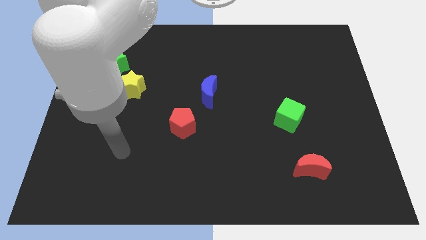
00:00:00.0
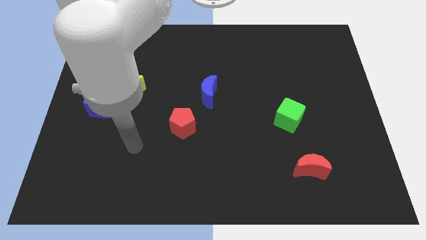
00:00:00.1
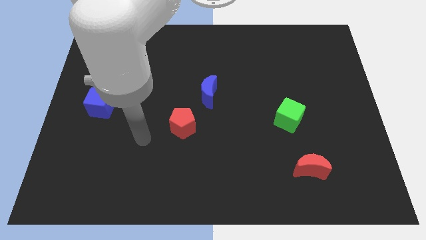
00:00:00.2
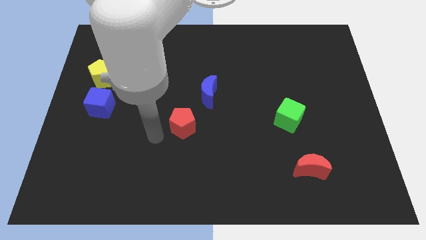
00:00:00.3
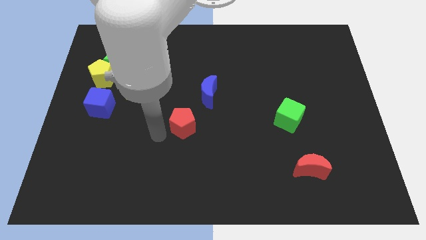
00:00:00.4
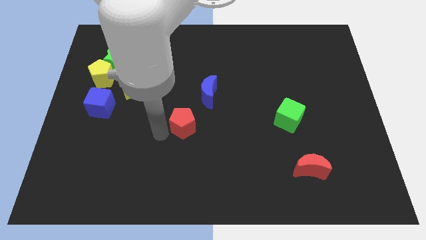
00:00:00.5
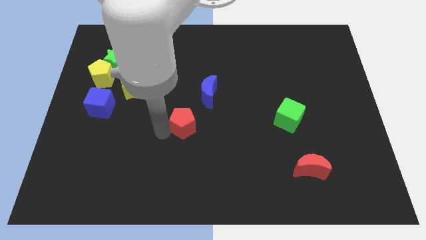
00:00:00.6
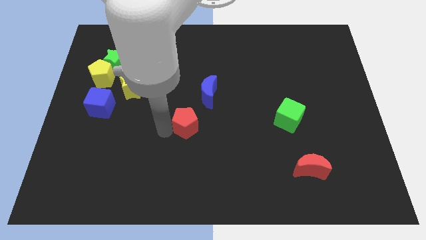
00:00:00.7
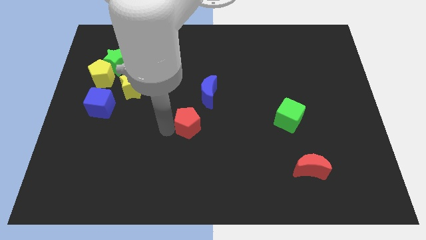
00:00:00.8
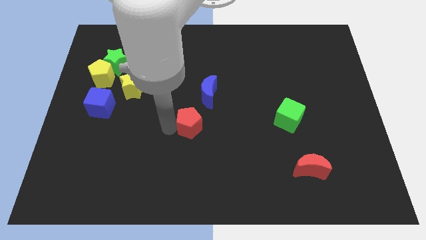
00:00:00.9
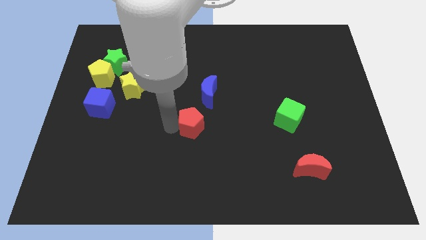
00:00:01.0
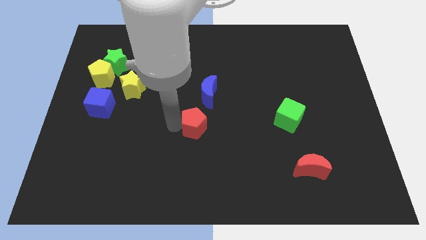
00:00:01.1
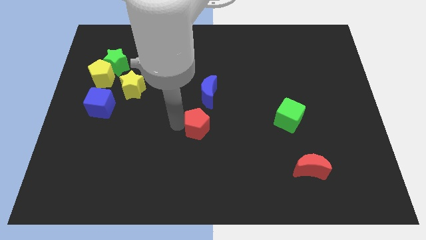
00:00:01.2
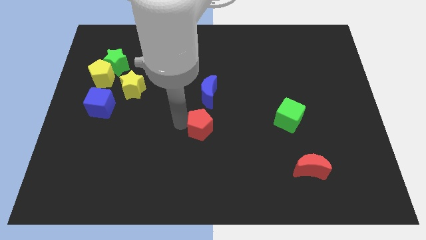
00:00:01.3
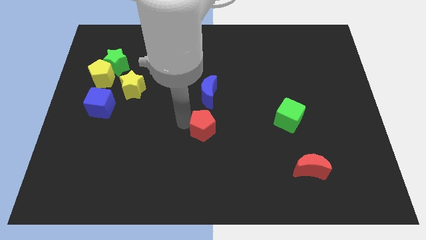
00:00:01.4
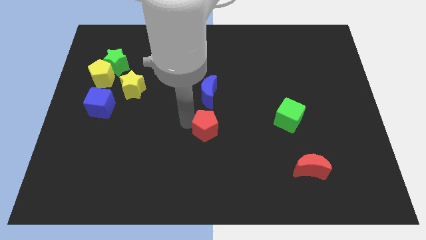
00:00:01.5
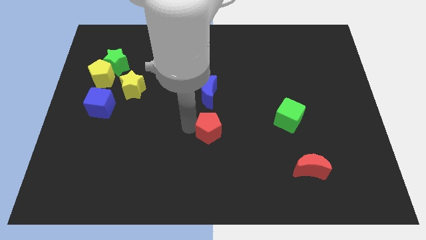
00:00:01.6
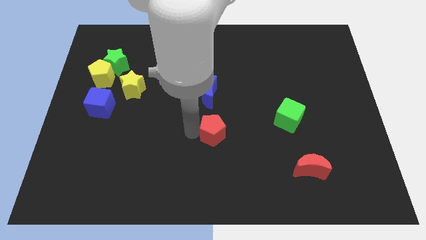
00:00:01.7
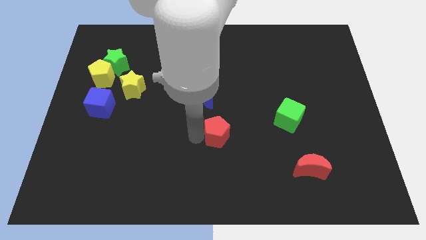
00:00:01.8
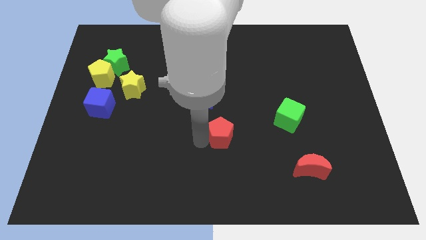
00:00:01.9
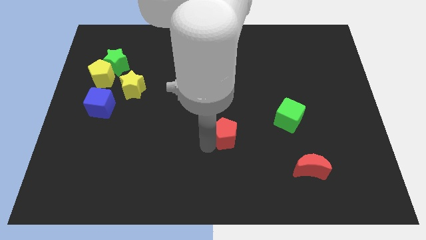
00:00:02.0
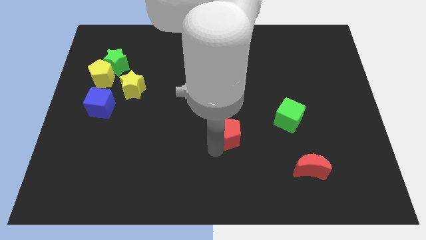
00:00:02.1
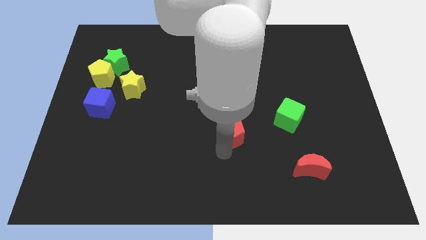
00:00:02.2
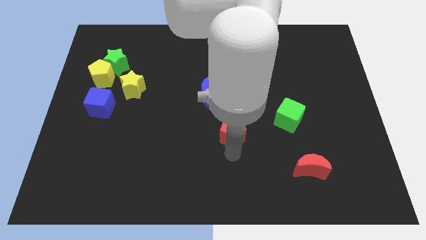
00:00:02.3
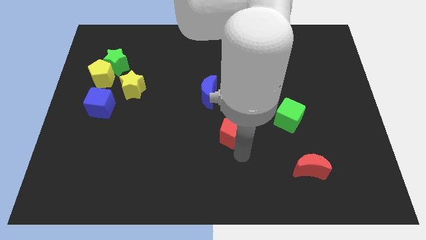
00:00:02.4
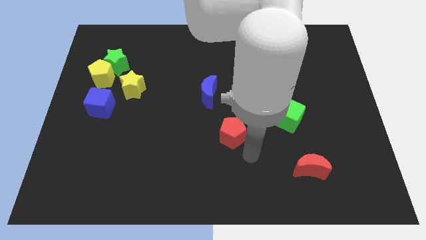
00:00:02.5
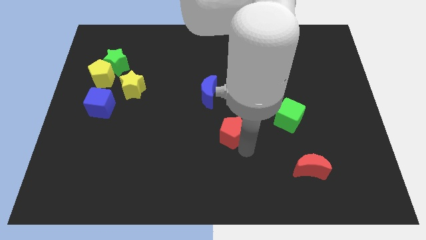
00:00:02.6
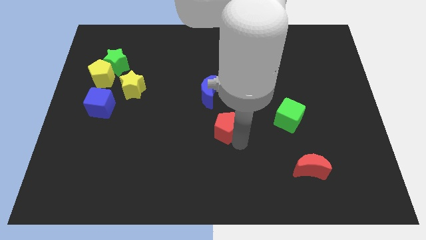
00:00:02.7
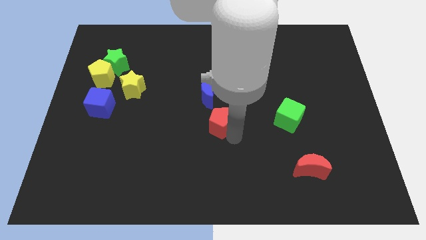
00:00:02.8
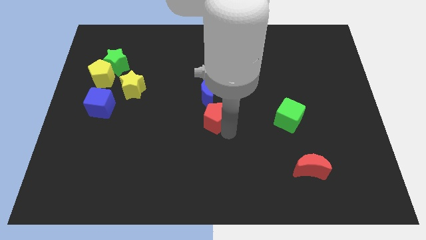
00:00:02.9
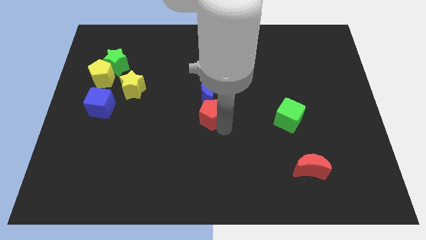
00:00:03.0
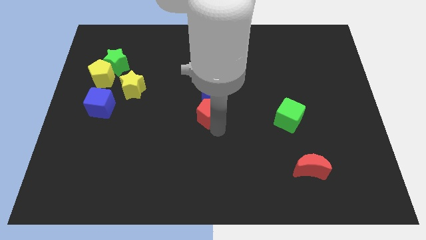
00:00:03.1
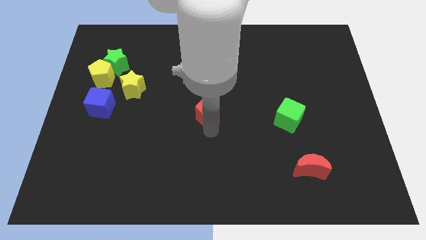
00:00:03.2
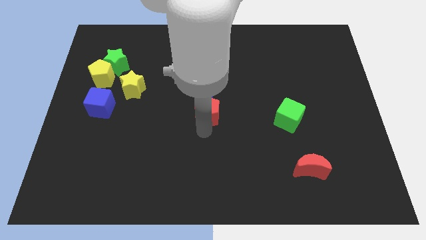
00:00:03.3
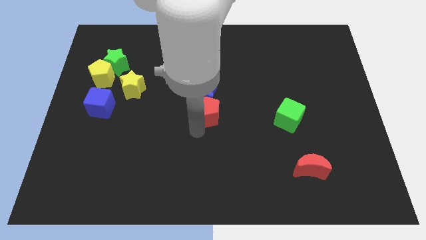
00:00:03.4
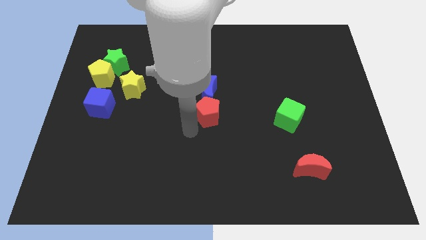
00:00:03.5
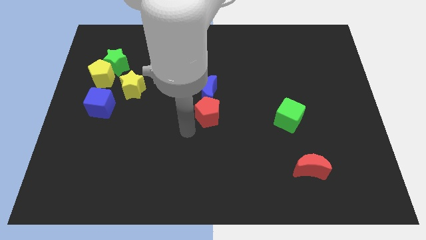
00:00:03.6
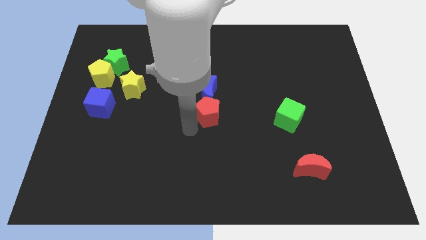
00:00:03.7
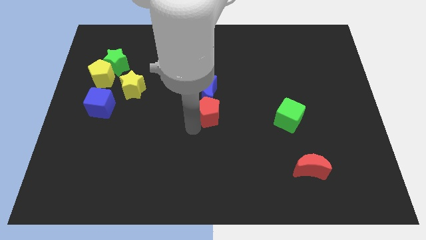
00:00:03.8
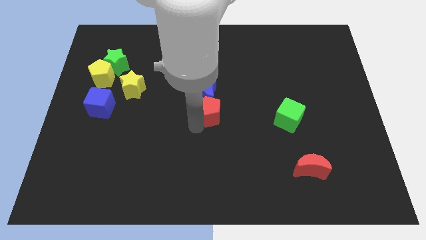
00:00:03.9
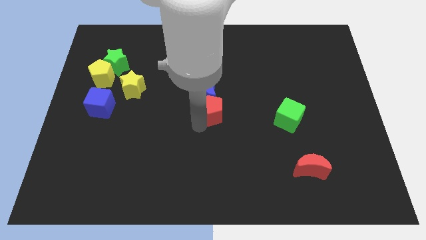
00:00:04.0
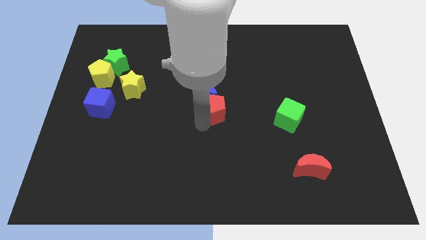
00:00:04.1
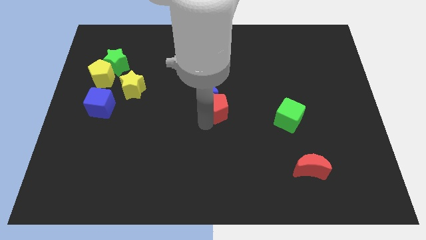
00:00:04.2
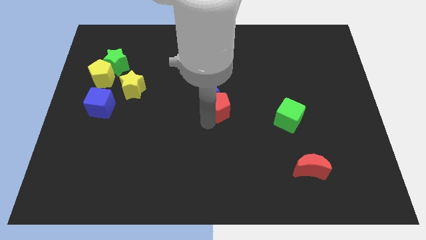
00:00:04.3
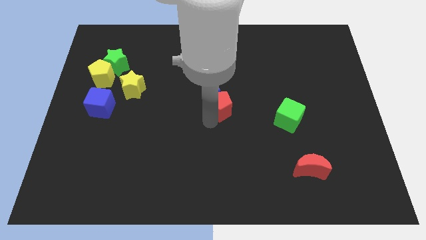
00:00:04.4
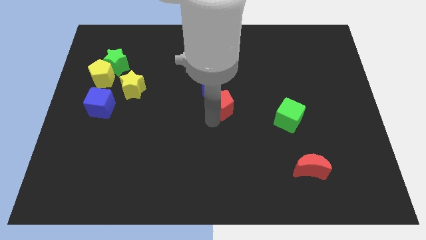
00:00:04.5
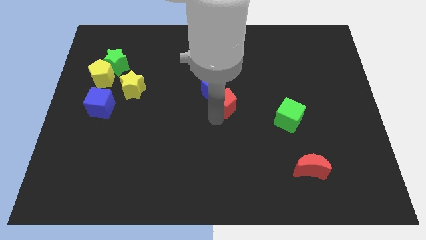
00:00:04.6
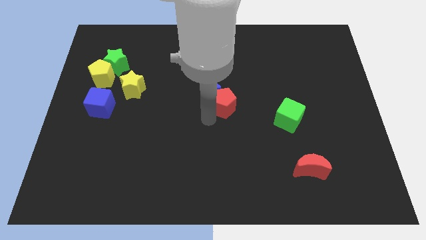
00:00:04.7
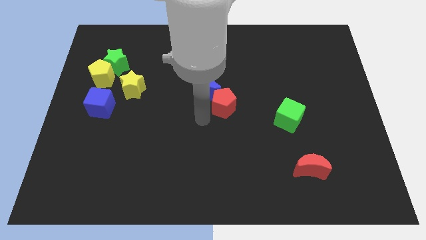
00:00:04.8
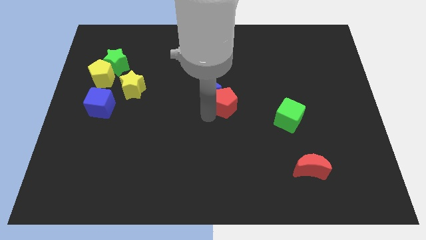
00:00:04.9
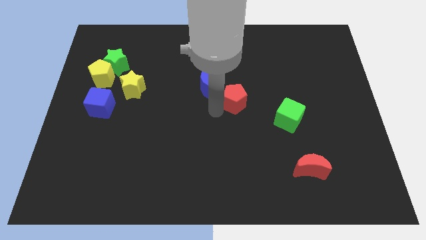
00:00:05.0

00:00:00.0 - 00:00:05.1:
slide the red pentagon to the right side of the blue moon

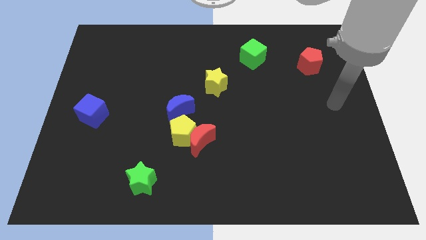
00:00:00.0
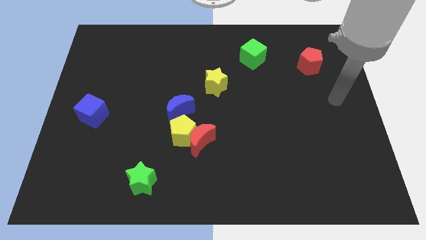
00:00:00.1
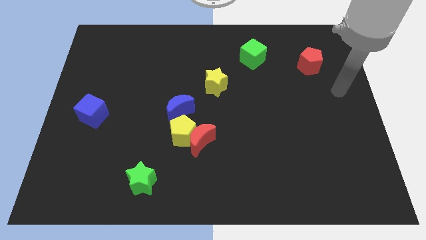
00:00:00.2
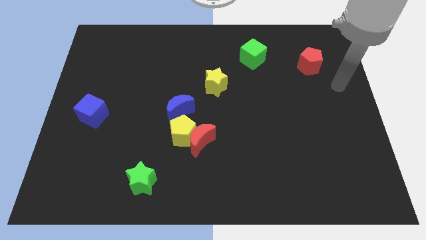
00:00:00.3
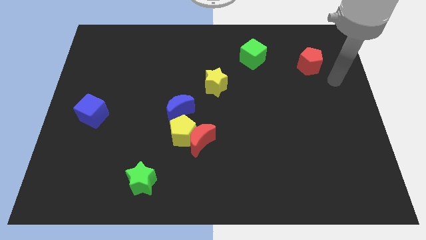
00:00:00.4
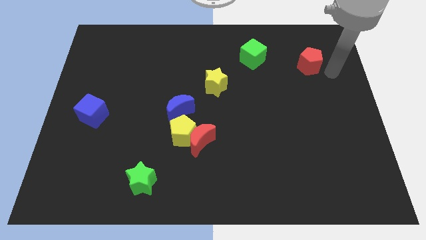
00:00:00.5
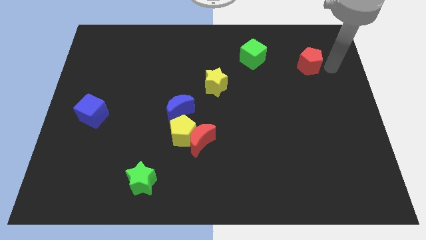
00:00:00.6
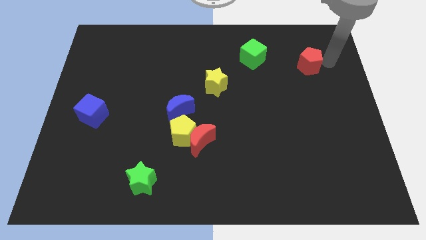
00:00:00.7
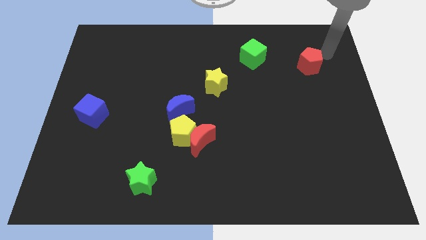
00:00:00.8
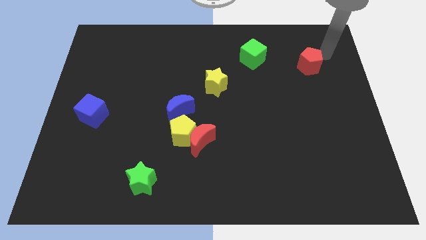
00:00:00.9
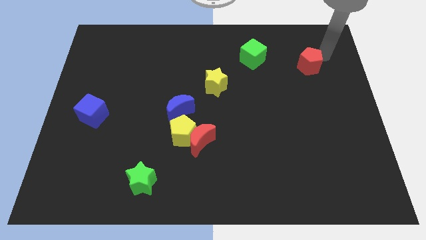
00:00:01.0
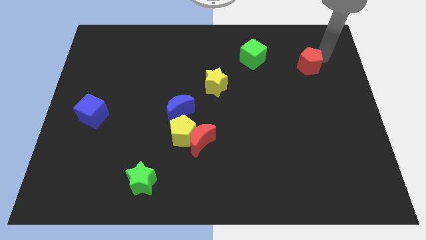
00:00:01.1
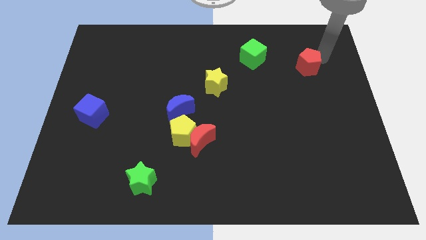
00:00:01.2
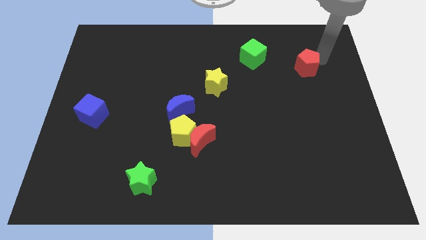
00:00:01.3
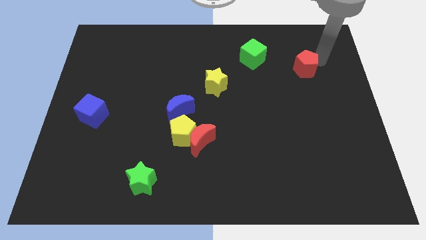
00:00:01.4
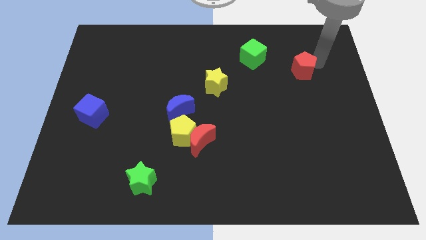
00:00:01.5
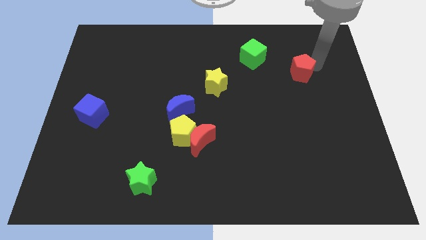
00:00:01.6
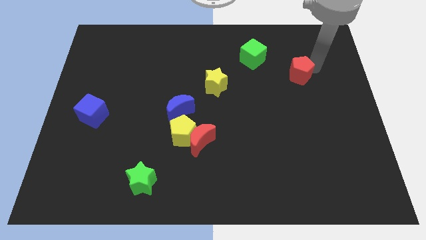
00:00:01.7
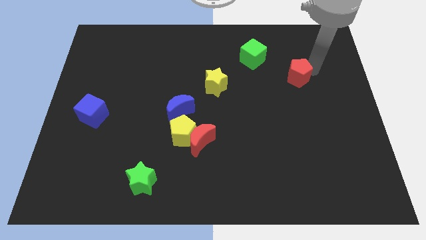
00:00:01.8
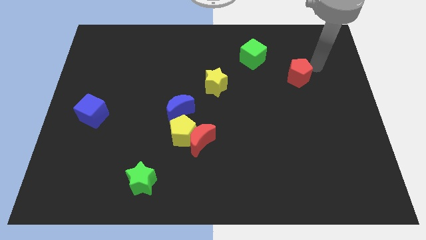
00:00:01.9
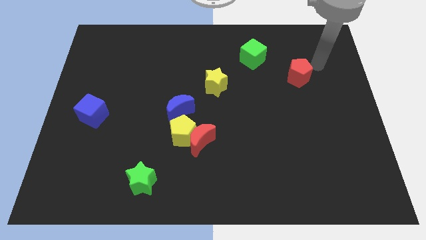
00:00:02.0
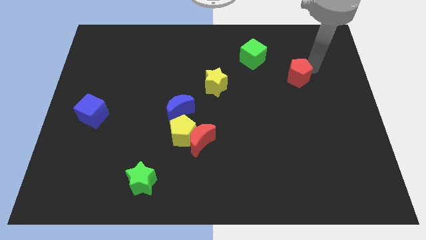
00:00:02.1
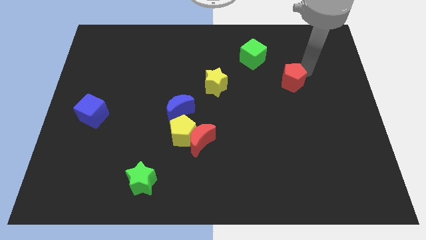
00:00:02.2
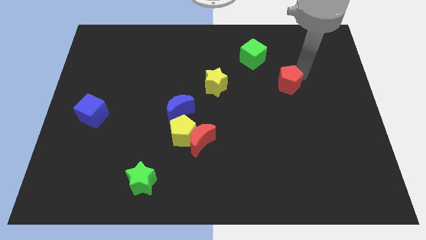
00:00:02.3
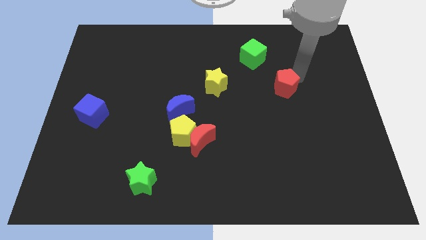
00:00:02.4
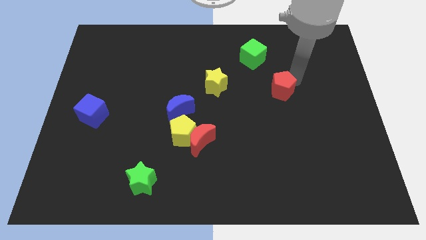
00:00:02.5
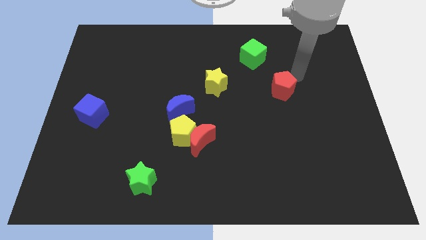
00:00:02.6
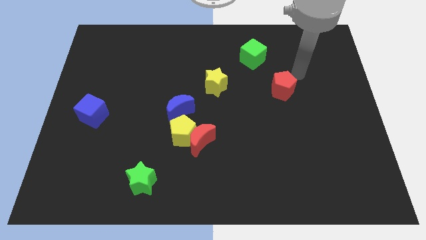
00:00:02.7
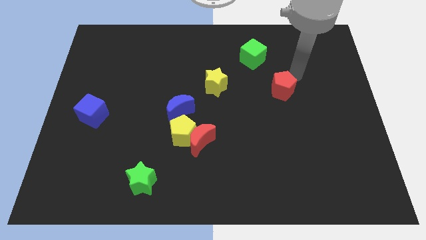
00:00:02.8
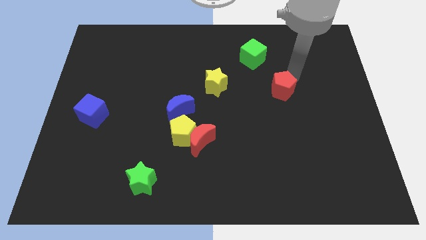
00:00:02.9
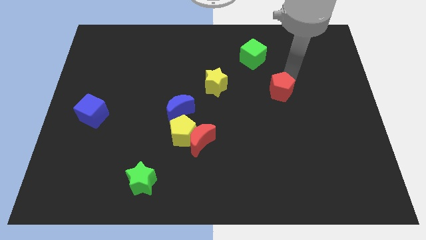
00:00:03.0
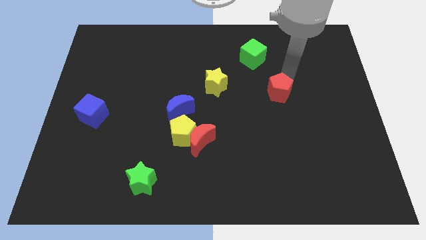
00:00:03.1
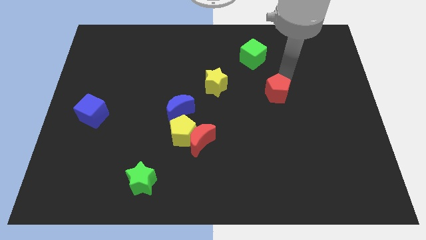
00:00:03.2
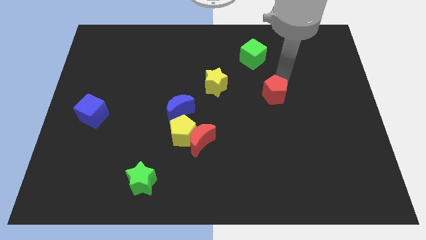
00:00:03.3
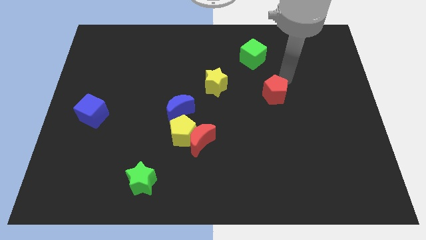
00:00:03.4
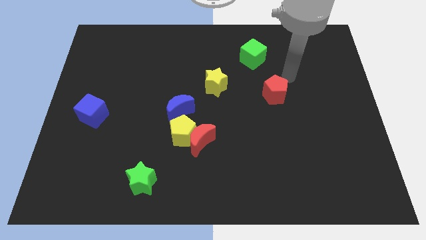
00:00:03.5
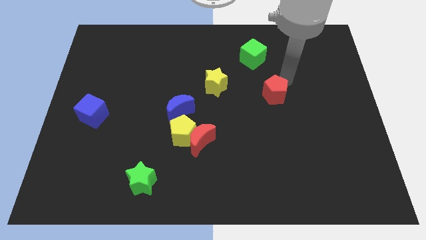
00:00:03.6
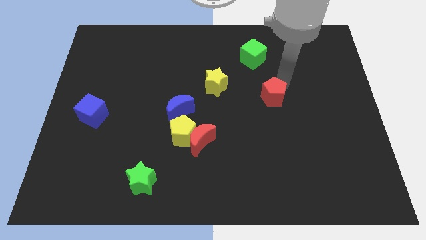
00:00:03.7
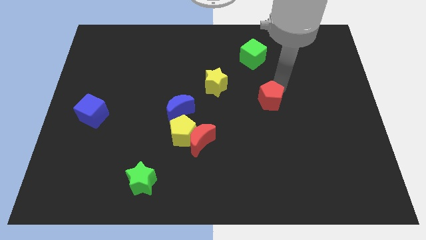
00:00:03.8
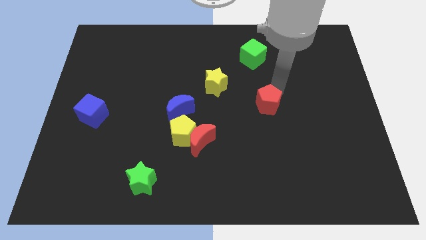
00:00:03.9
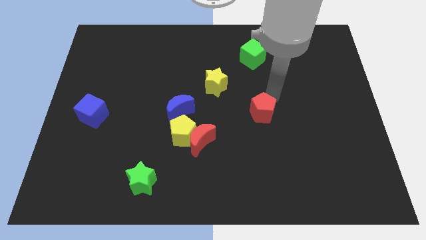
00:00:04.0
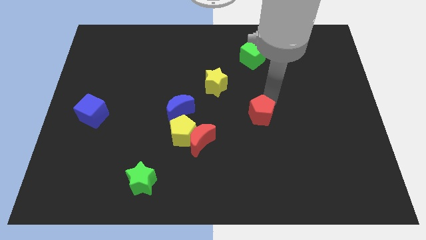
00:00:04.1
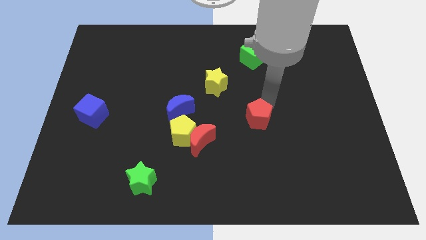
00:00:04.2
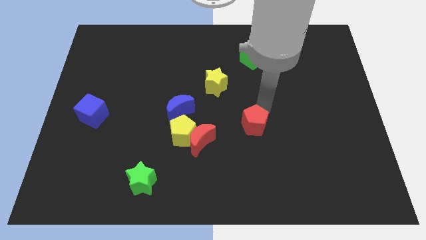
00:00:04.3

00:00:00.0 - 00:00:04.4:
slide the red pentagon right of the red moon
